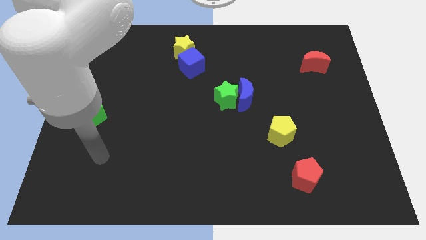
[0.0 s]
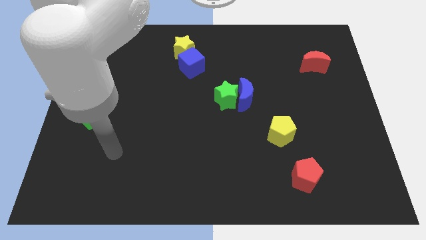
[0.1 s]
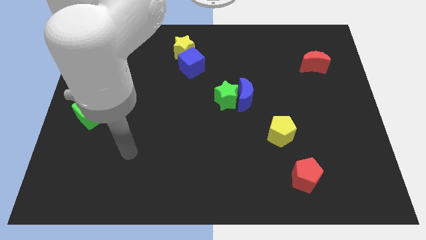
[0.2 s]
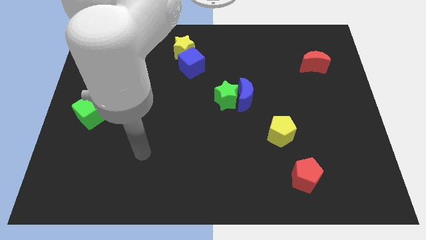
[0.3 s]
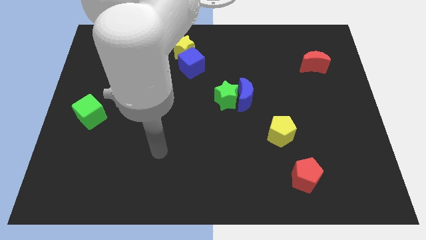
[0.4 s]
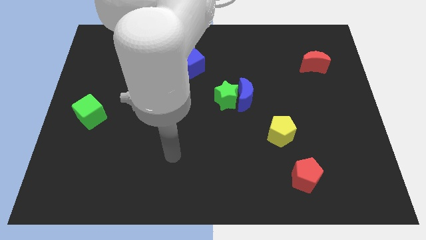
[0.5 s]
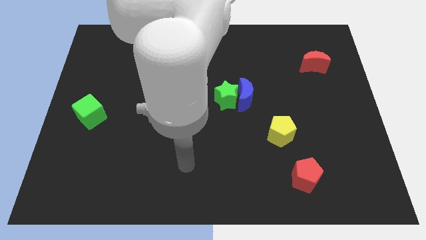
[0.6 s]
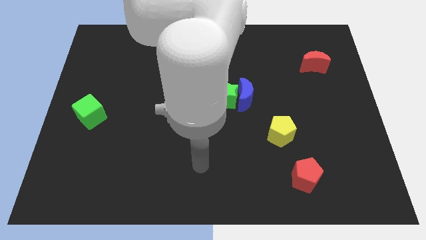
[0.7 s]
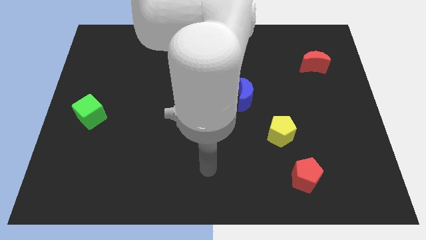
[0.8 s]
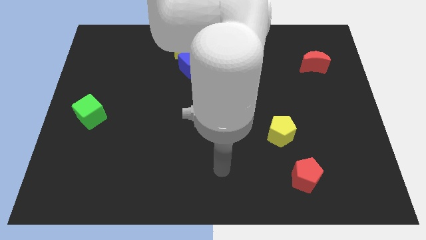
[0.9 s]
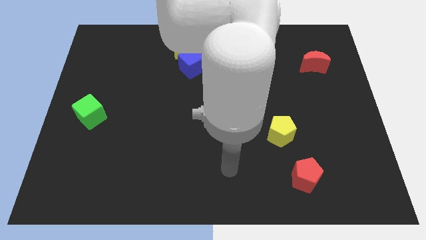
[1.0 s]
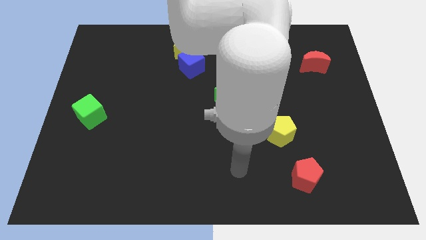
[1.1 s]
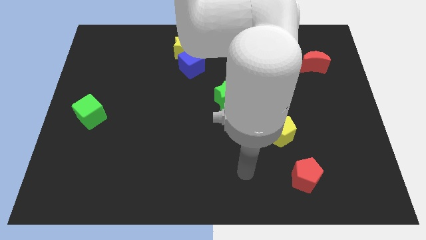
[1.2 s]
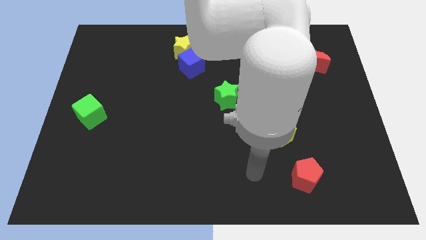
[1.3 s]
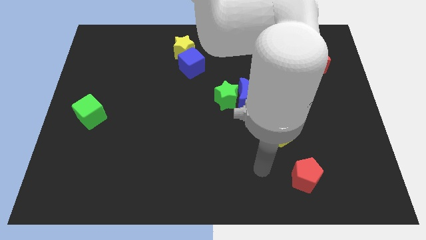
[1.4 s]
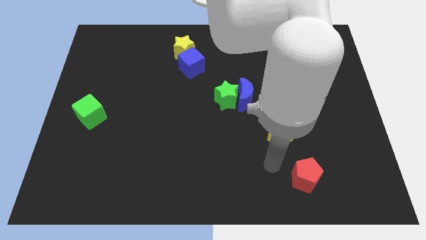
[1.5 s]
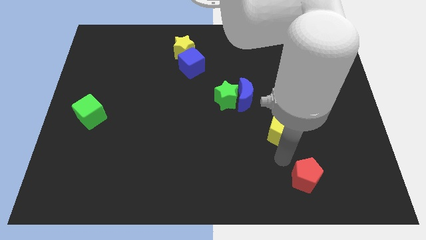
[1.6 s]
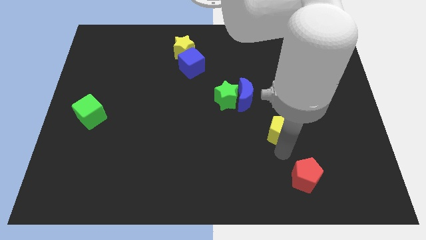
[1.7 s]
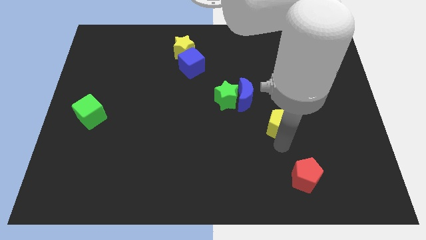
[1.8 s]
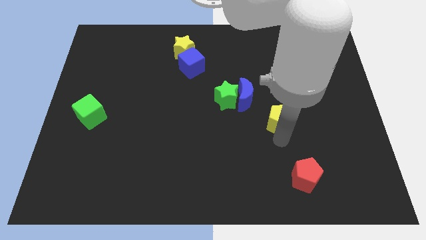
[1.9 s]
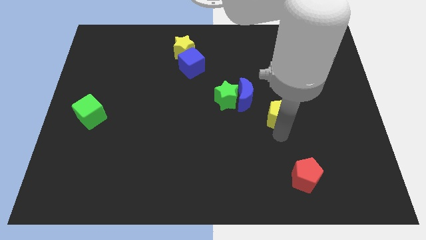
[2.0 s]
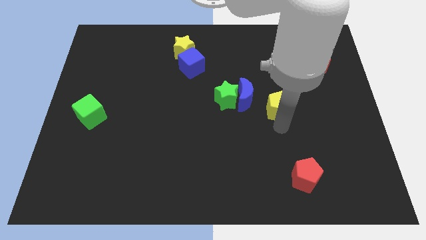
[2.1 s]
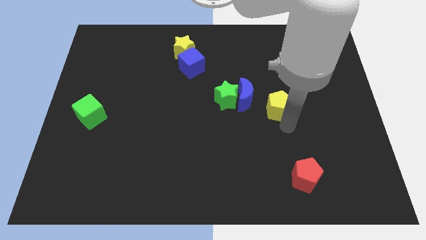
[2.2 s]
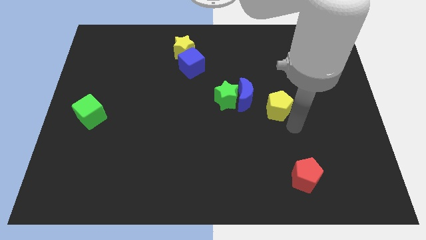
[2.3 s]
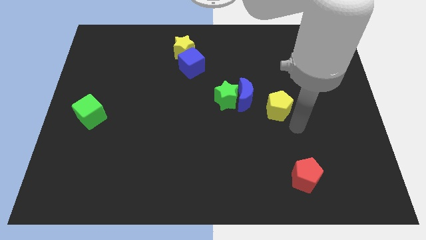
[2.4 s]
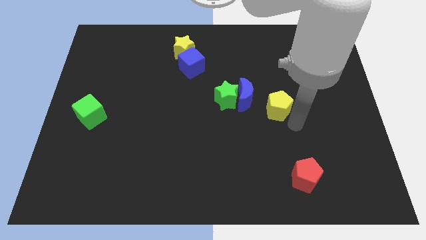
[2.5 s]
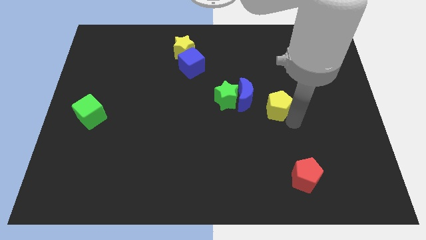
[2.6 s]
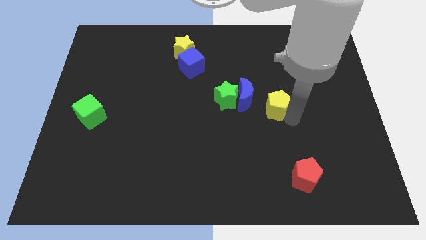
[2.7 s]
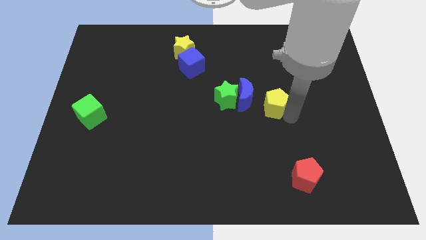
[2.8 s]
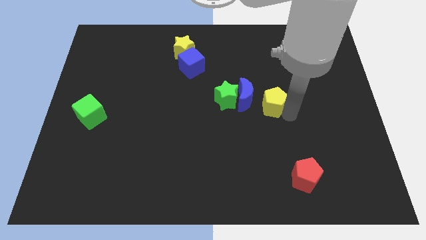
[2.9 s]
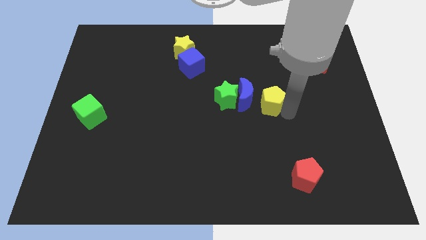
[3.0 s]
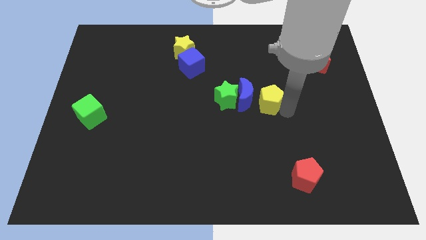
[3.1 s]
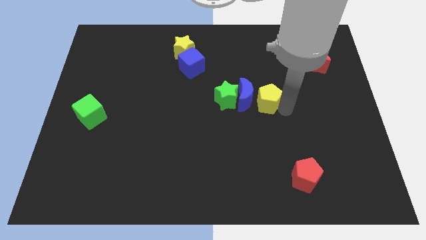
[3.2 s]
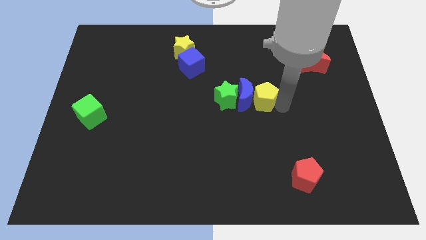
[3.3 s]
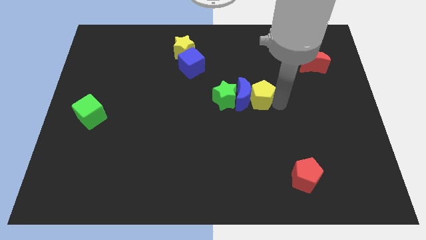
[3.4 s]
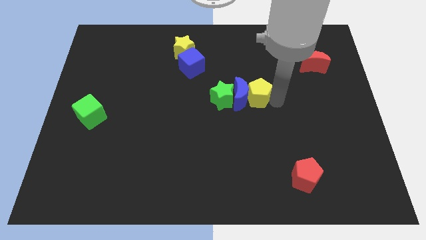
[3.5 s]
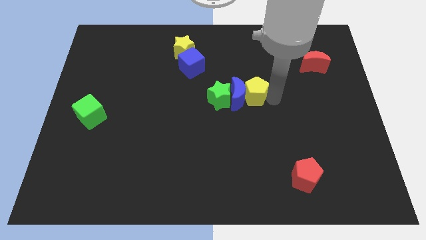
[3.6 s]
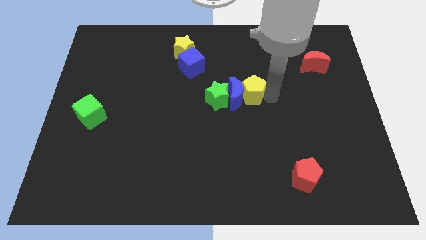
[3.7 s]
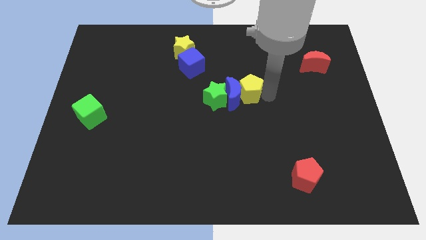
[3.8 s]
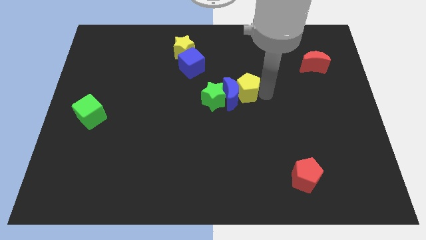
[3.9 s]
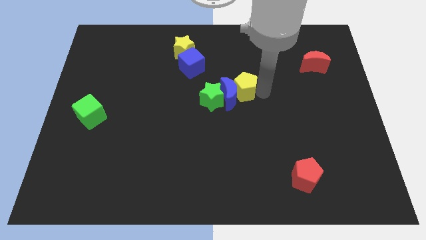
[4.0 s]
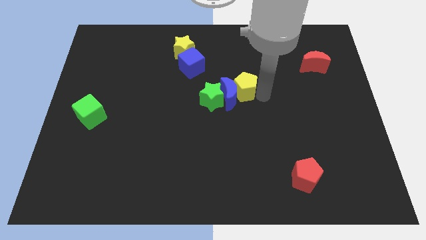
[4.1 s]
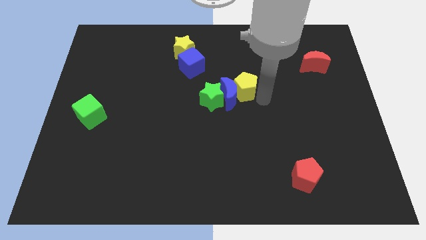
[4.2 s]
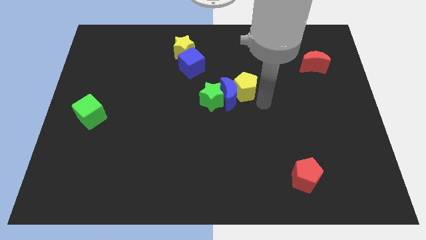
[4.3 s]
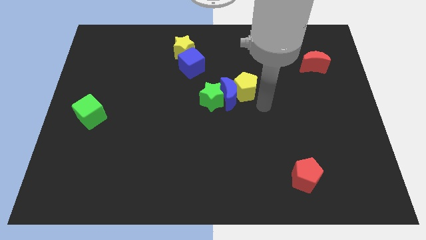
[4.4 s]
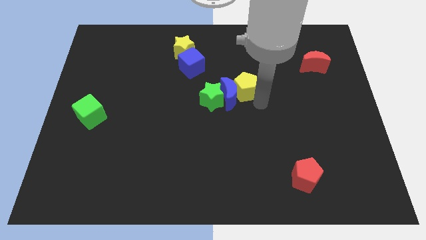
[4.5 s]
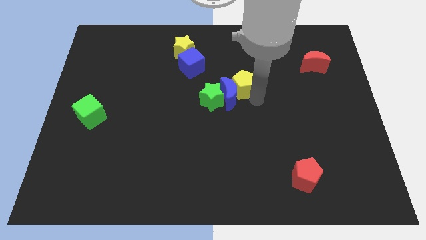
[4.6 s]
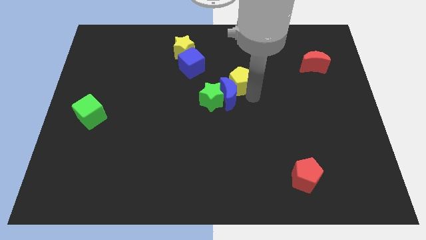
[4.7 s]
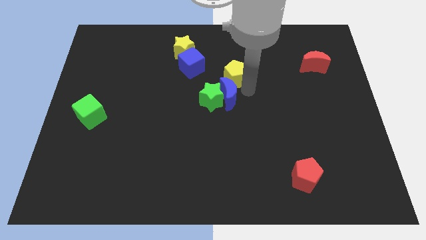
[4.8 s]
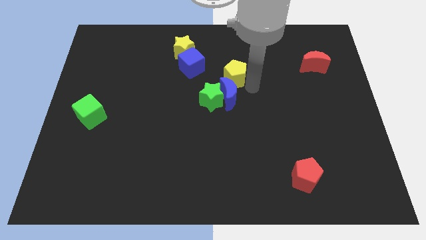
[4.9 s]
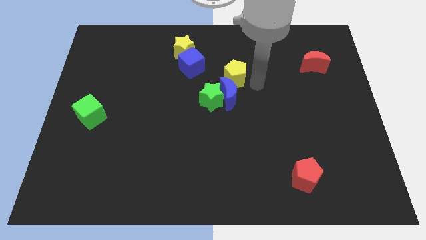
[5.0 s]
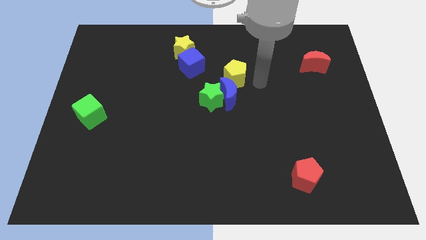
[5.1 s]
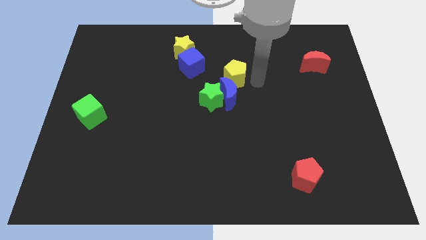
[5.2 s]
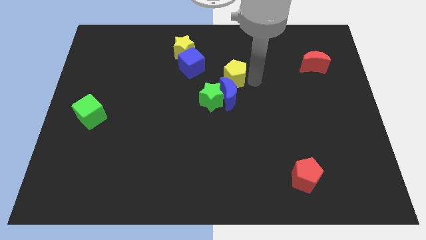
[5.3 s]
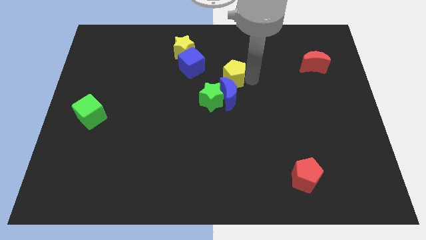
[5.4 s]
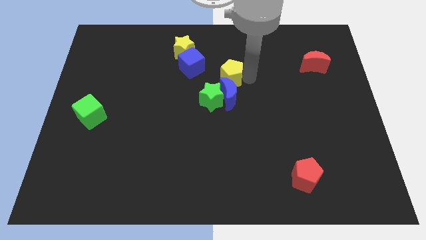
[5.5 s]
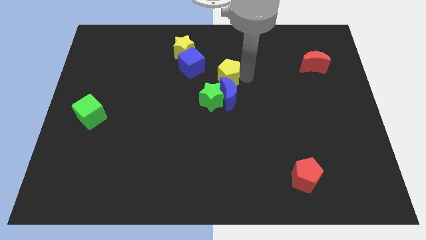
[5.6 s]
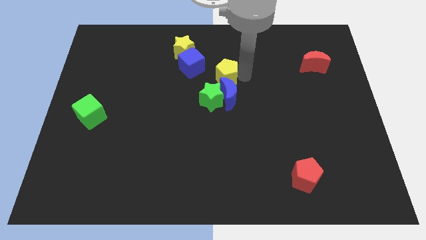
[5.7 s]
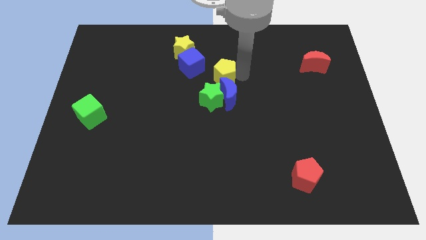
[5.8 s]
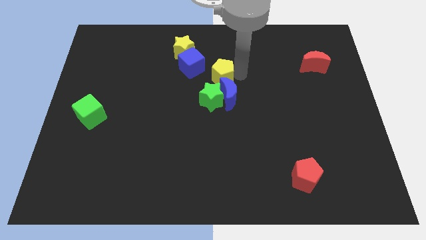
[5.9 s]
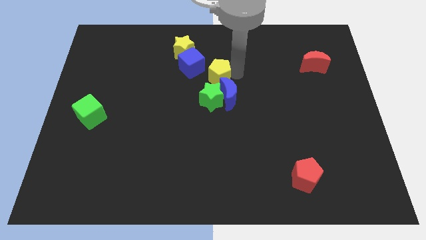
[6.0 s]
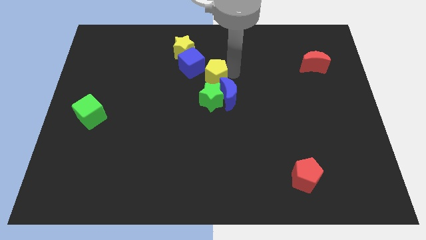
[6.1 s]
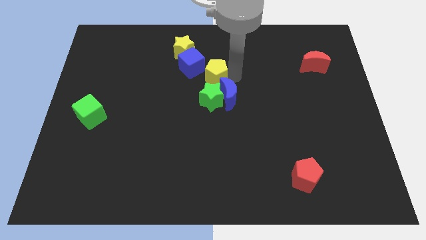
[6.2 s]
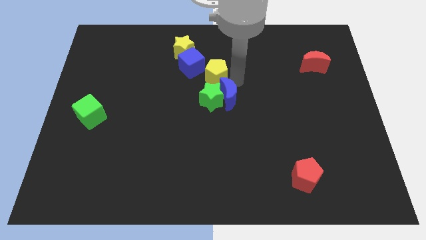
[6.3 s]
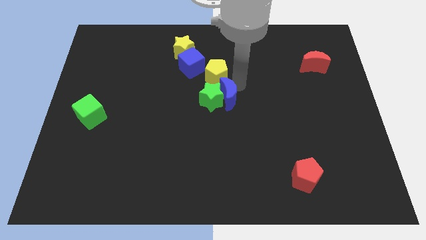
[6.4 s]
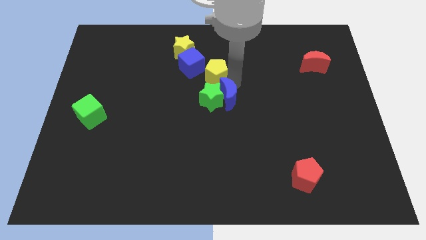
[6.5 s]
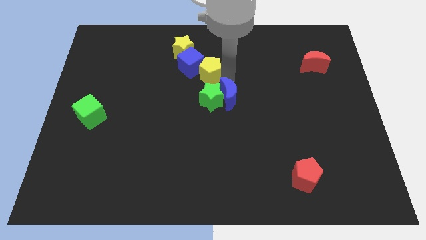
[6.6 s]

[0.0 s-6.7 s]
move the yellow pentagon to the blue cube

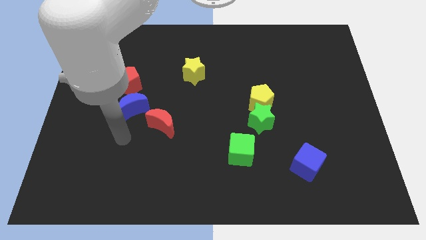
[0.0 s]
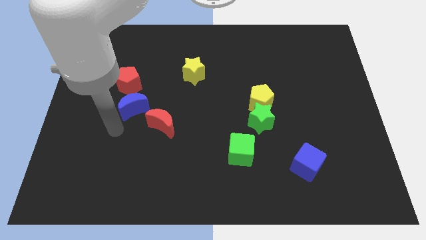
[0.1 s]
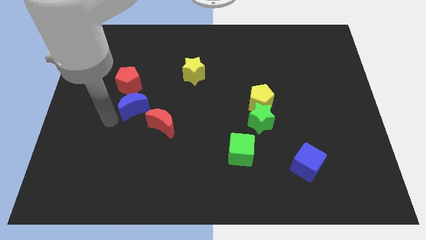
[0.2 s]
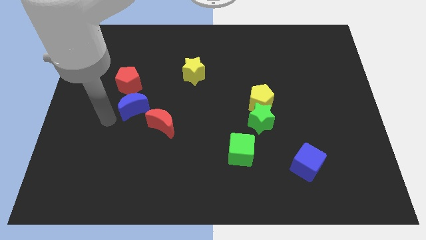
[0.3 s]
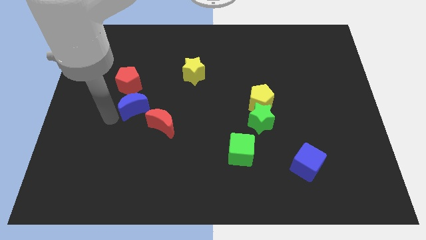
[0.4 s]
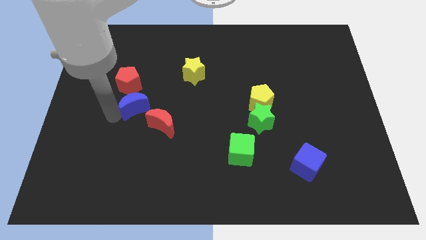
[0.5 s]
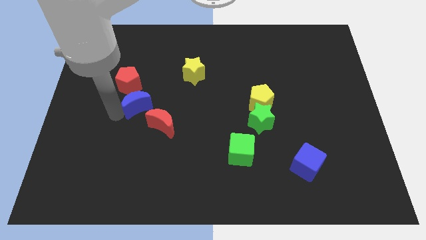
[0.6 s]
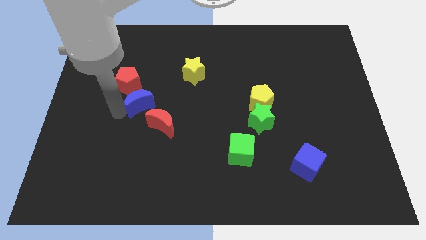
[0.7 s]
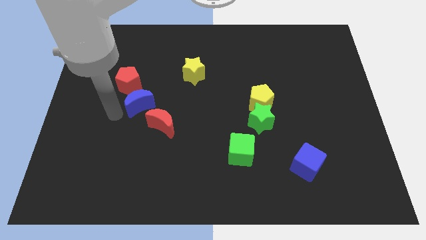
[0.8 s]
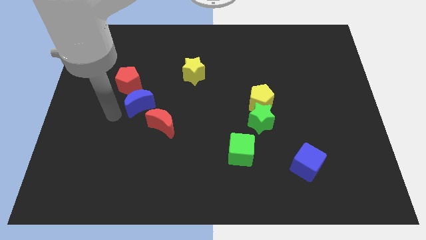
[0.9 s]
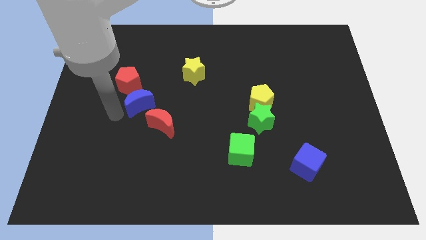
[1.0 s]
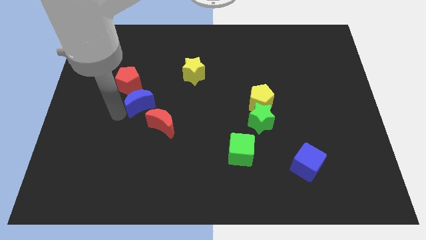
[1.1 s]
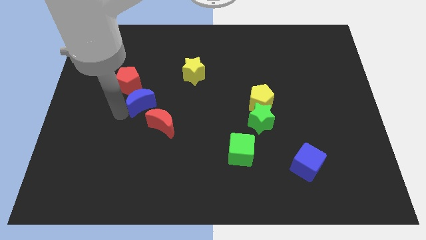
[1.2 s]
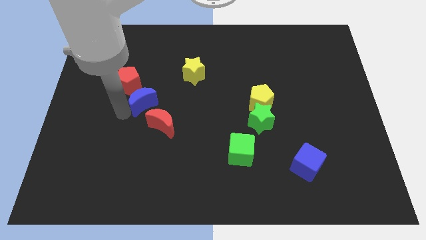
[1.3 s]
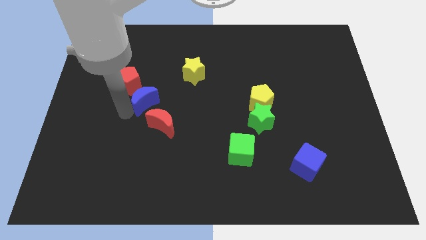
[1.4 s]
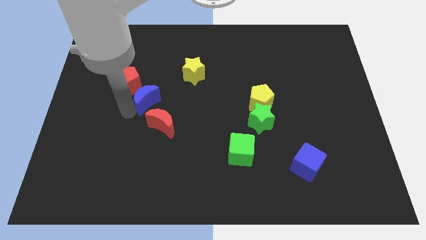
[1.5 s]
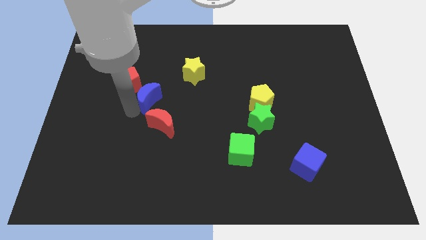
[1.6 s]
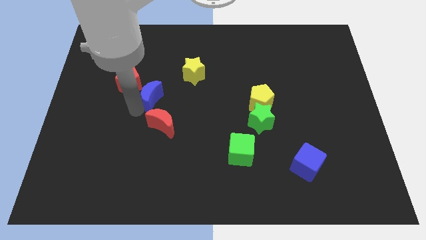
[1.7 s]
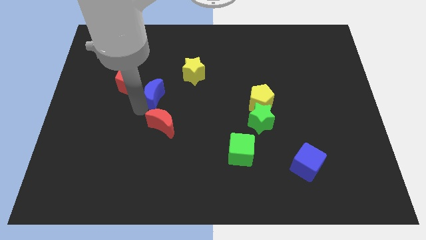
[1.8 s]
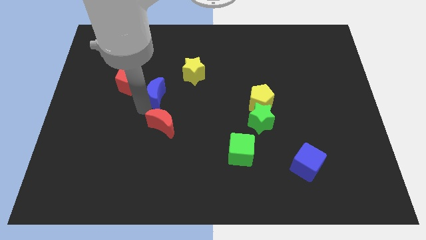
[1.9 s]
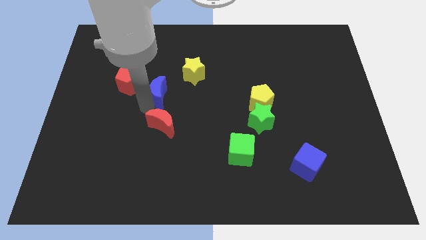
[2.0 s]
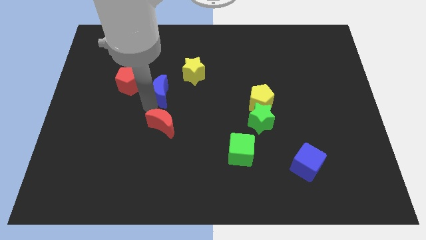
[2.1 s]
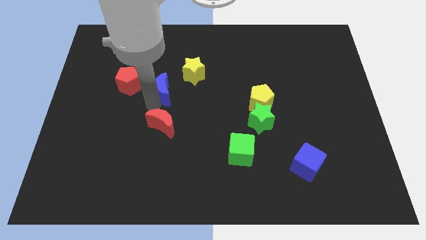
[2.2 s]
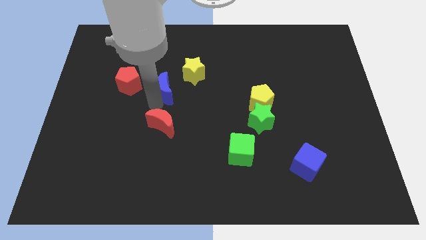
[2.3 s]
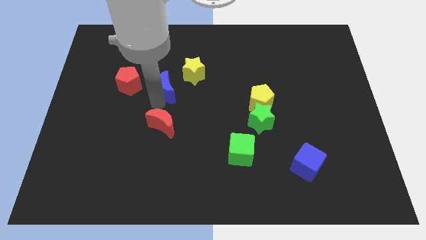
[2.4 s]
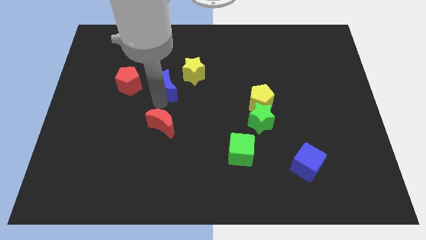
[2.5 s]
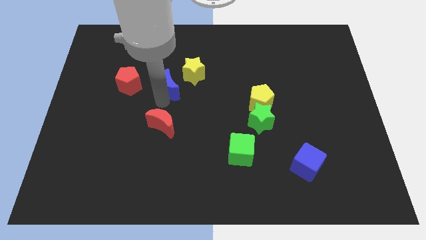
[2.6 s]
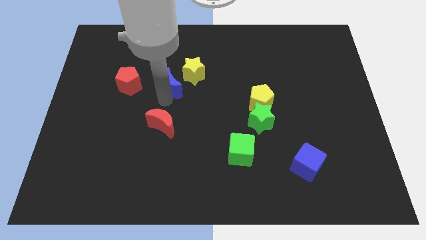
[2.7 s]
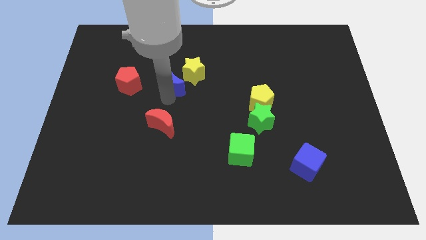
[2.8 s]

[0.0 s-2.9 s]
slide the blue moon close to the yellow star
